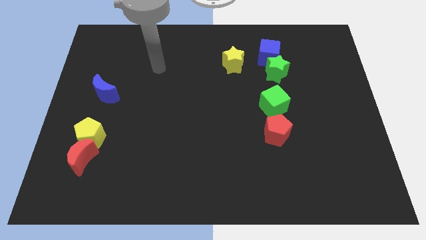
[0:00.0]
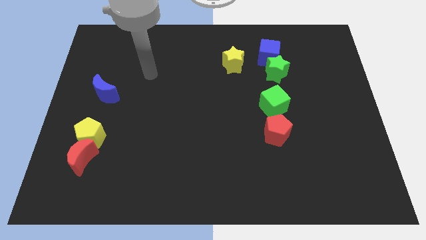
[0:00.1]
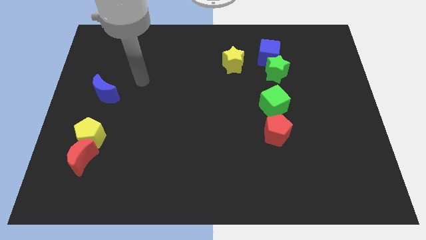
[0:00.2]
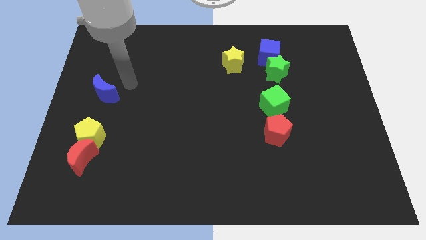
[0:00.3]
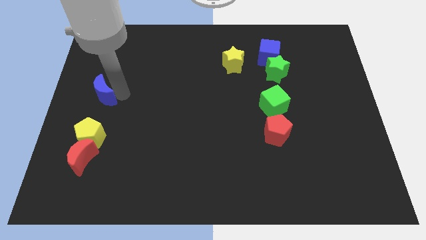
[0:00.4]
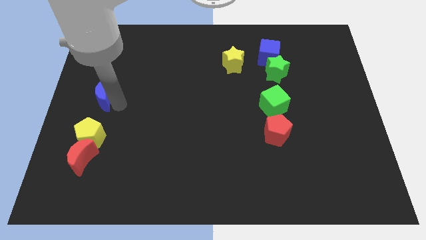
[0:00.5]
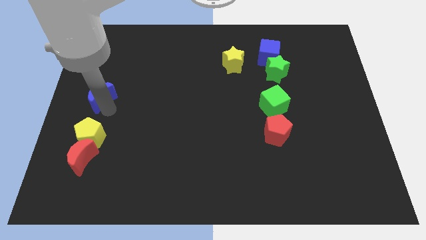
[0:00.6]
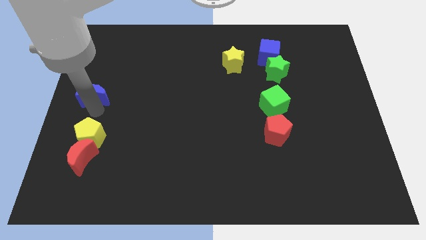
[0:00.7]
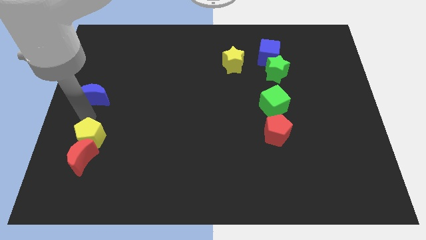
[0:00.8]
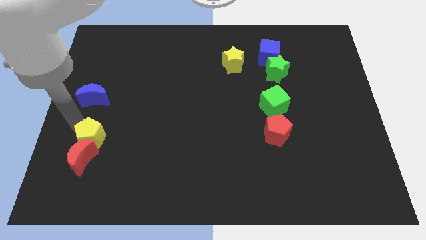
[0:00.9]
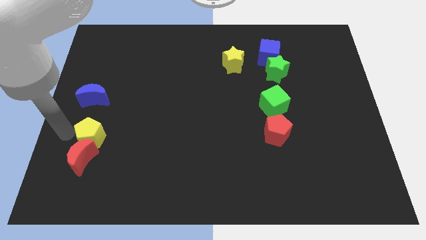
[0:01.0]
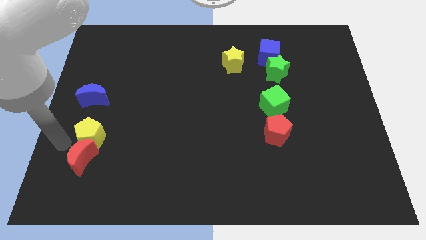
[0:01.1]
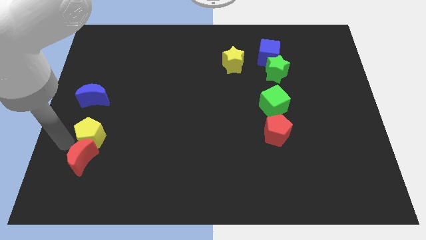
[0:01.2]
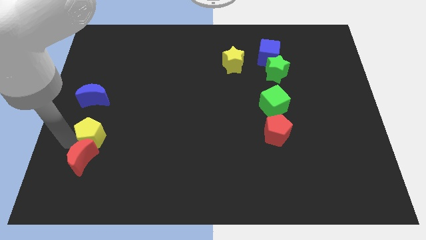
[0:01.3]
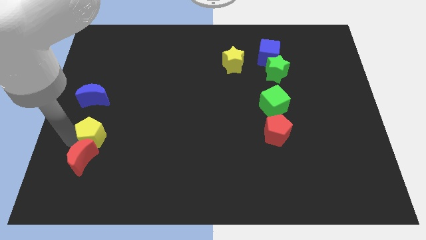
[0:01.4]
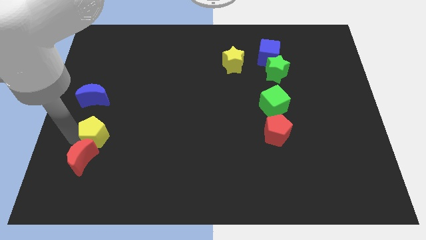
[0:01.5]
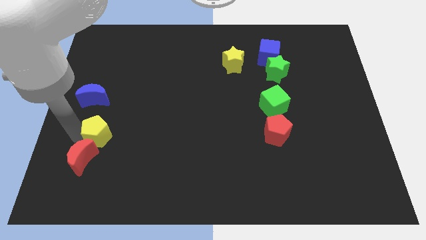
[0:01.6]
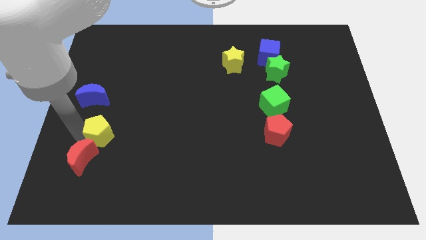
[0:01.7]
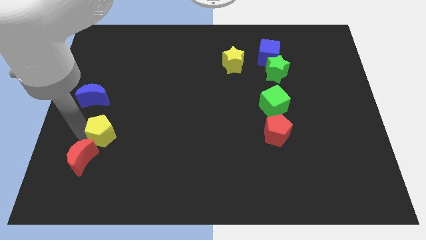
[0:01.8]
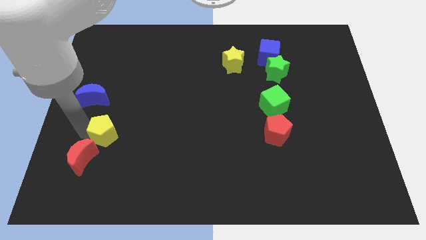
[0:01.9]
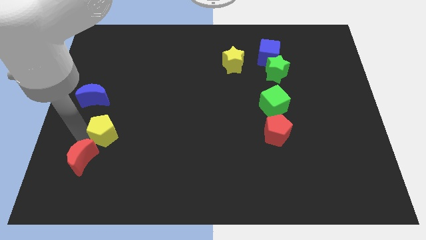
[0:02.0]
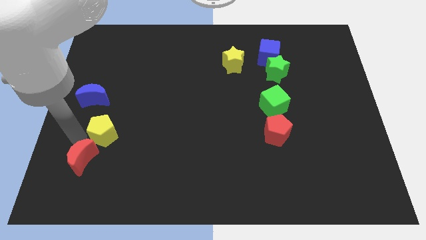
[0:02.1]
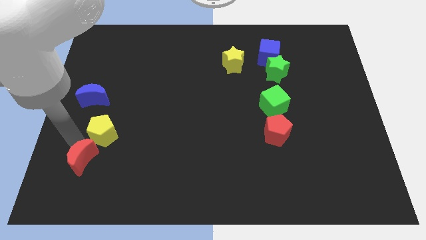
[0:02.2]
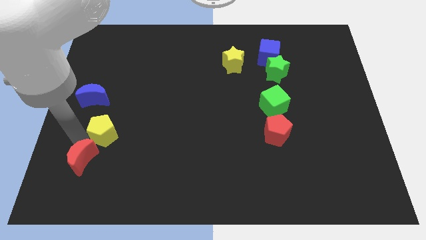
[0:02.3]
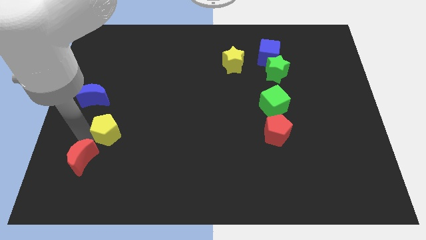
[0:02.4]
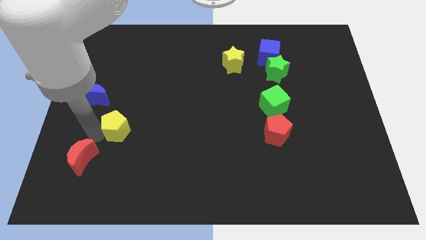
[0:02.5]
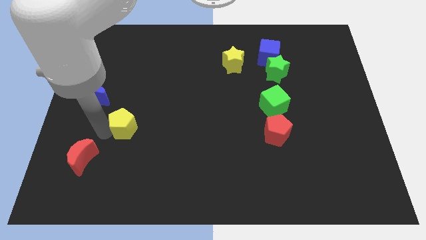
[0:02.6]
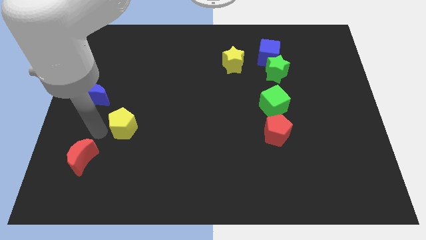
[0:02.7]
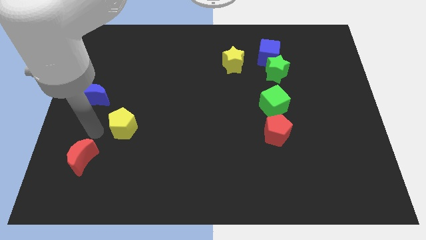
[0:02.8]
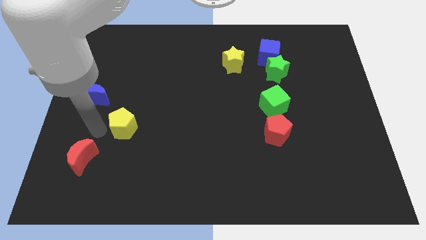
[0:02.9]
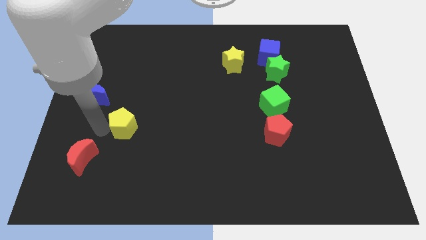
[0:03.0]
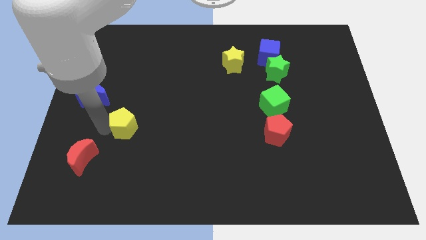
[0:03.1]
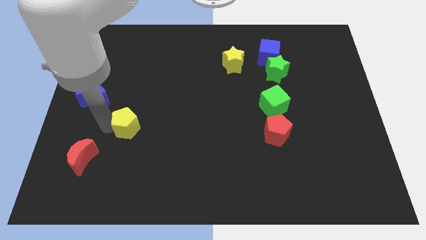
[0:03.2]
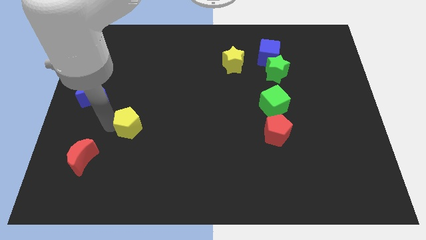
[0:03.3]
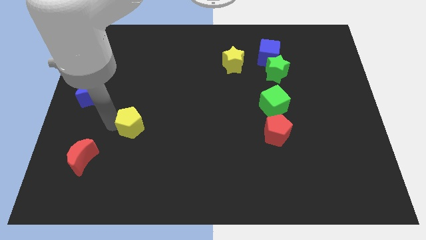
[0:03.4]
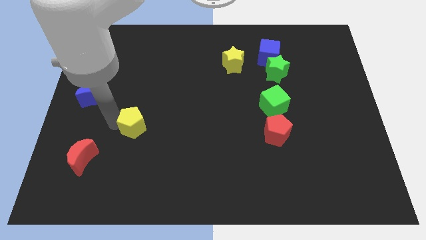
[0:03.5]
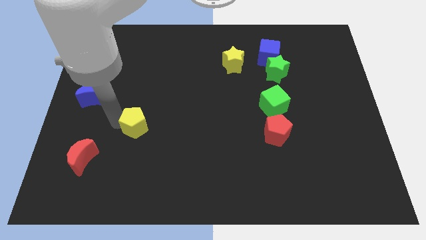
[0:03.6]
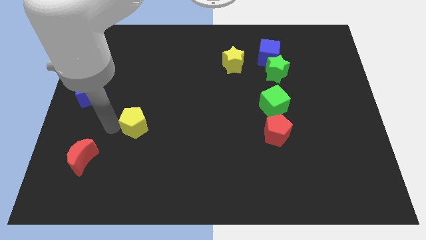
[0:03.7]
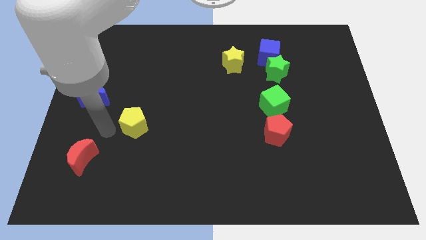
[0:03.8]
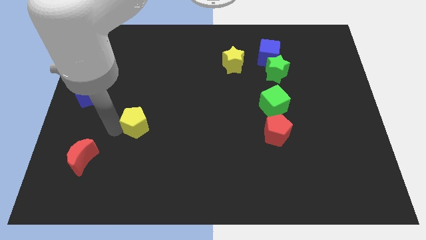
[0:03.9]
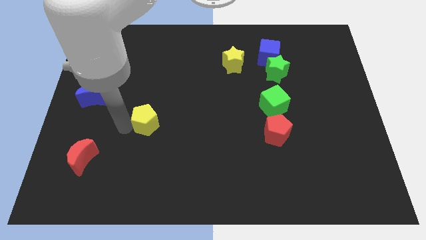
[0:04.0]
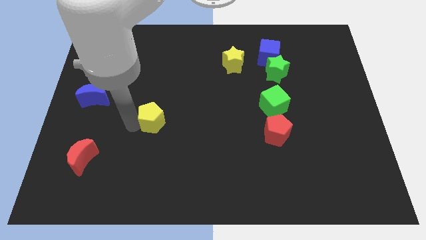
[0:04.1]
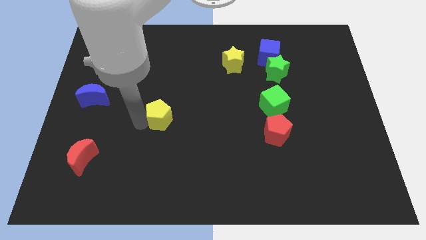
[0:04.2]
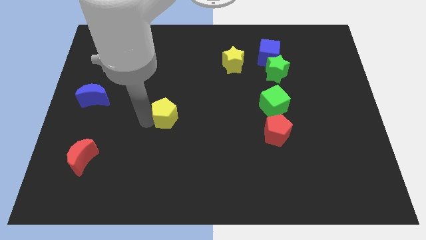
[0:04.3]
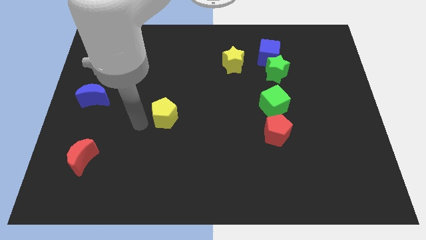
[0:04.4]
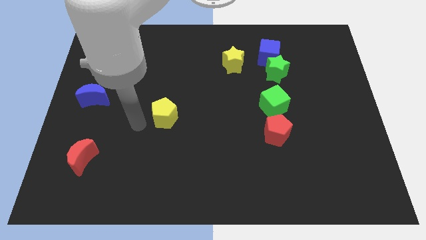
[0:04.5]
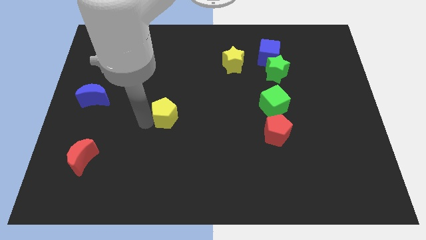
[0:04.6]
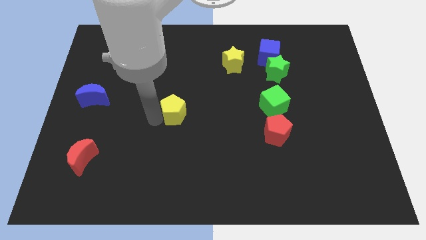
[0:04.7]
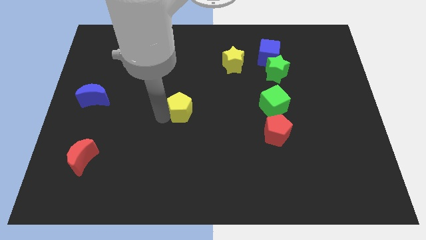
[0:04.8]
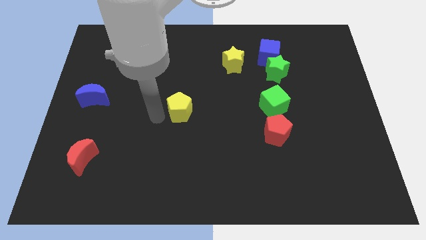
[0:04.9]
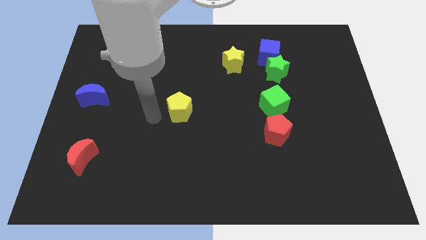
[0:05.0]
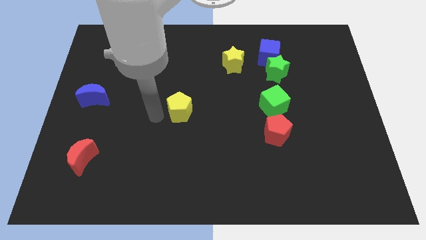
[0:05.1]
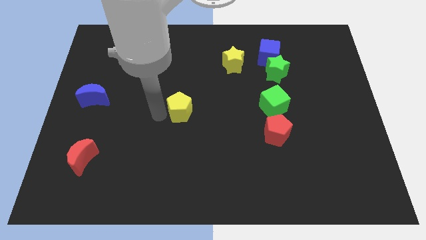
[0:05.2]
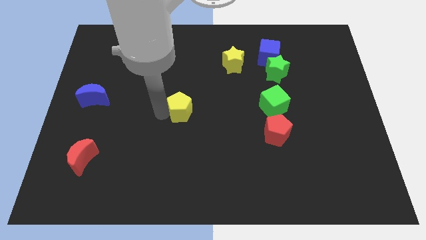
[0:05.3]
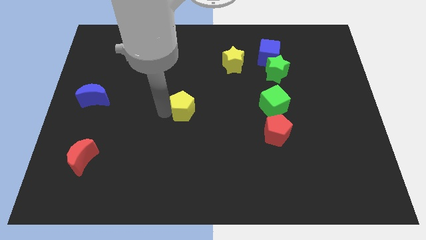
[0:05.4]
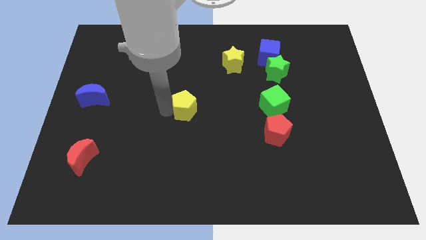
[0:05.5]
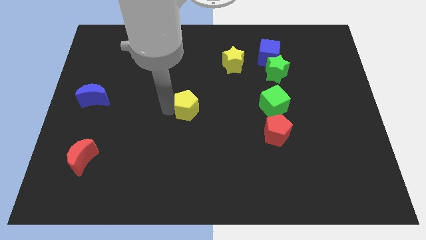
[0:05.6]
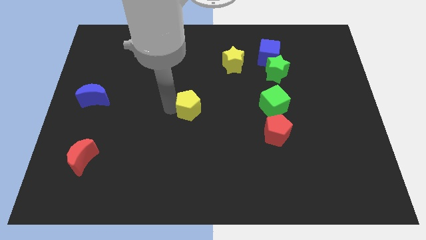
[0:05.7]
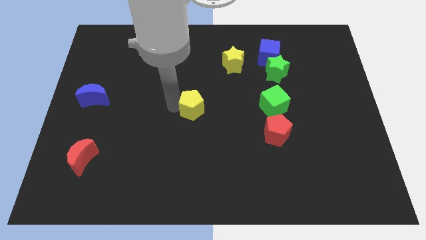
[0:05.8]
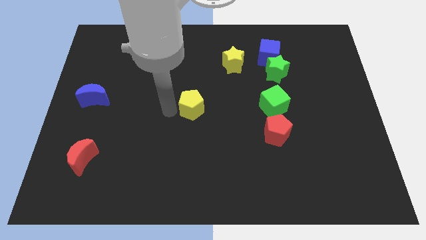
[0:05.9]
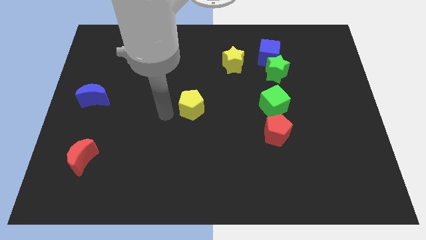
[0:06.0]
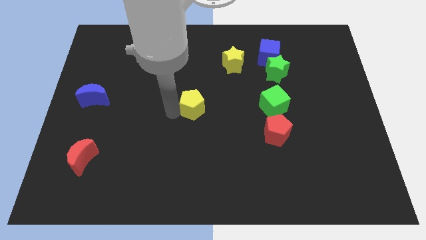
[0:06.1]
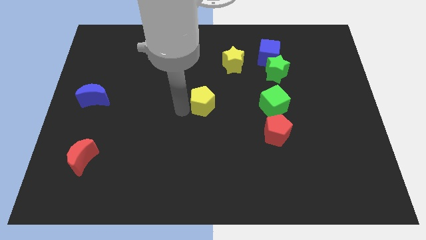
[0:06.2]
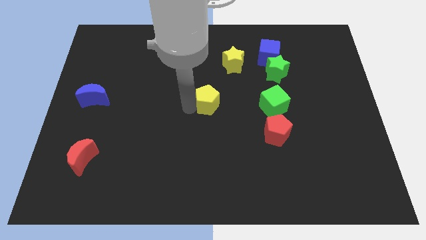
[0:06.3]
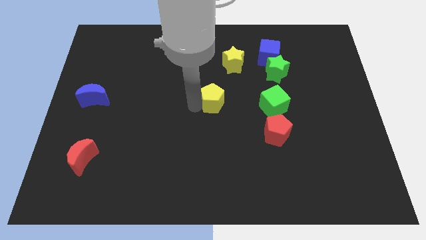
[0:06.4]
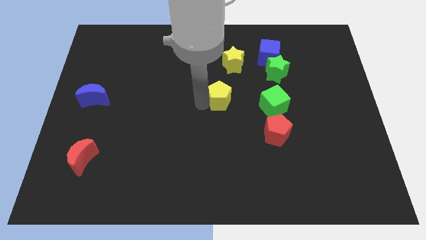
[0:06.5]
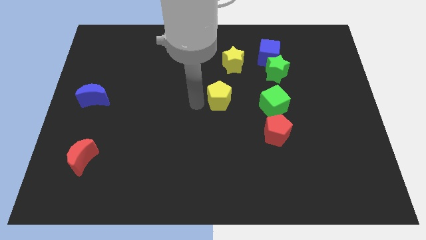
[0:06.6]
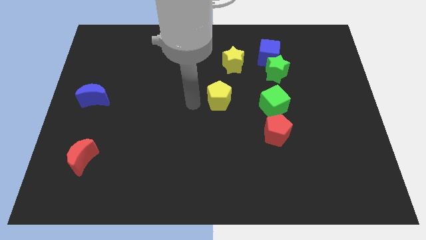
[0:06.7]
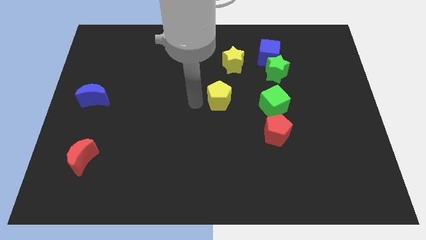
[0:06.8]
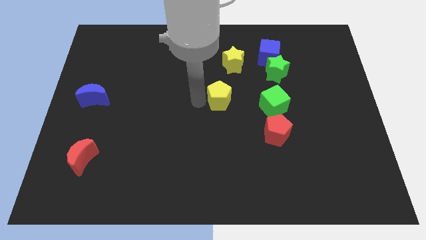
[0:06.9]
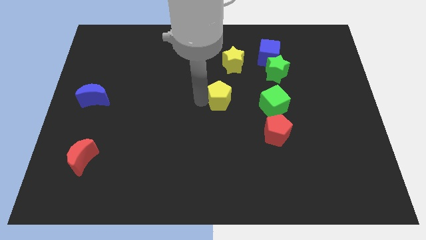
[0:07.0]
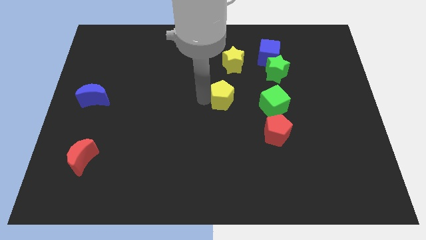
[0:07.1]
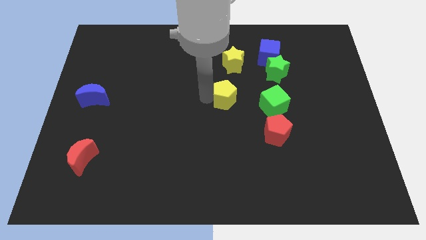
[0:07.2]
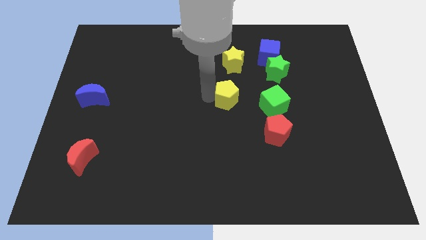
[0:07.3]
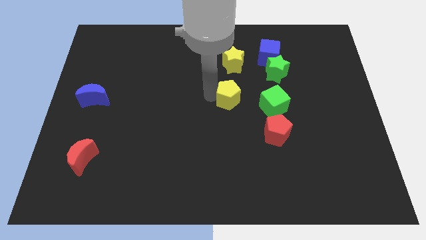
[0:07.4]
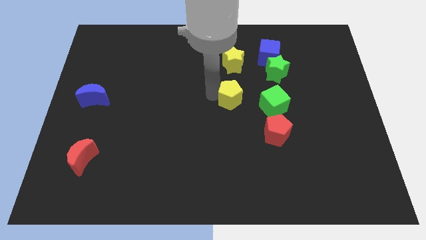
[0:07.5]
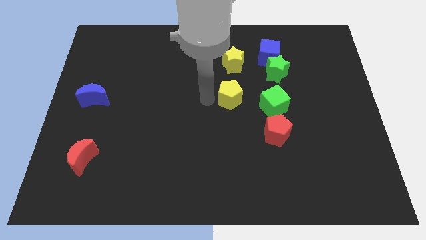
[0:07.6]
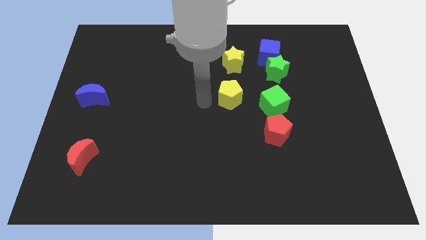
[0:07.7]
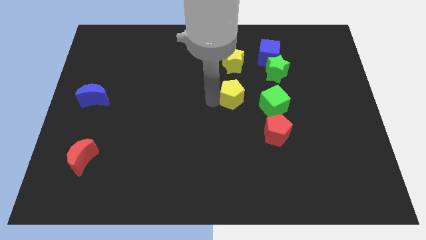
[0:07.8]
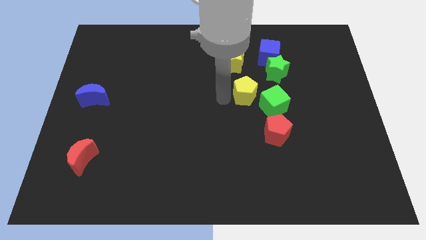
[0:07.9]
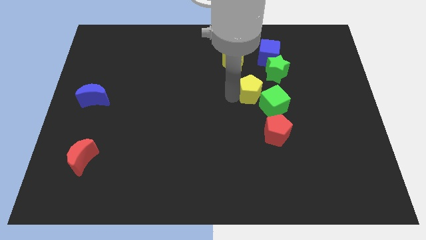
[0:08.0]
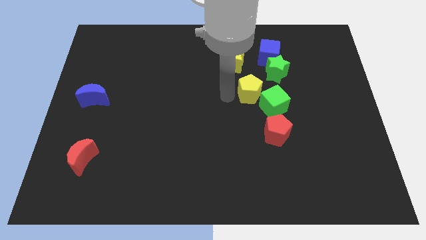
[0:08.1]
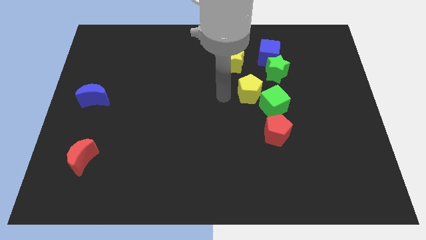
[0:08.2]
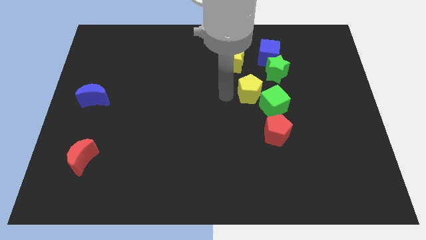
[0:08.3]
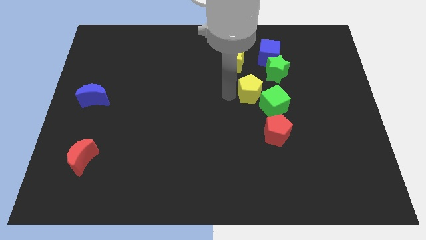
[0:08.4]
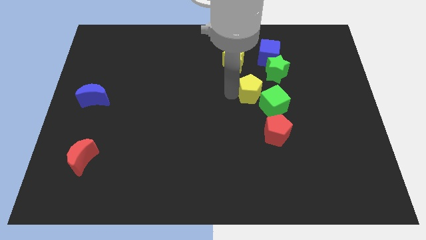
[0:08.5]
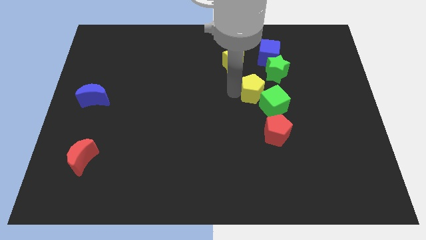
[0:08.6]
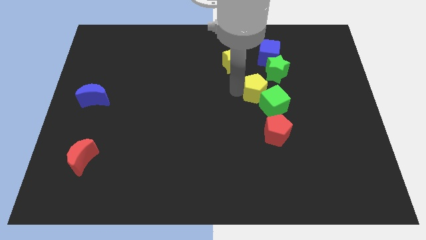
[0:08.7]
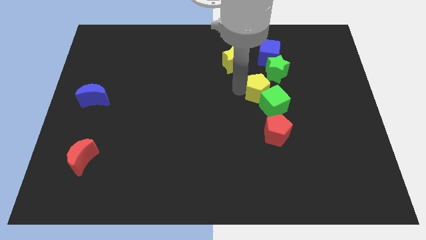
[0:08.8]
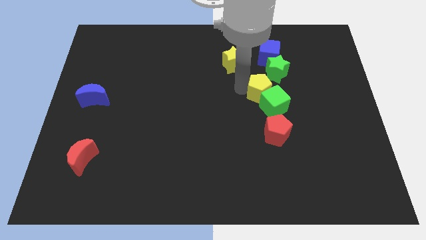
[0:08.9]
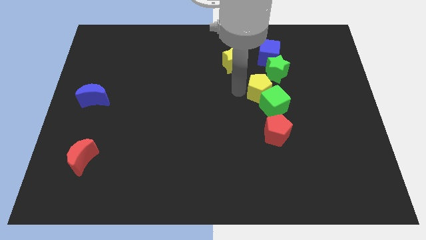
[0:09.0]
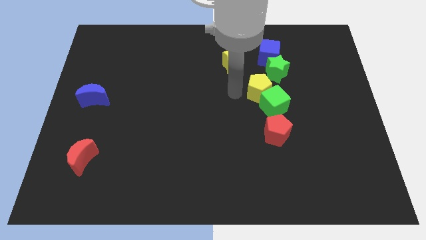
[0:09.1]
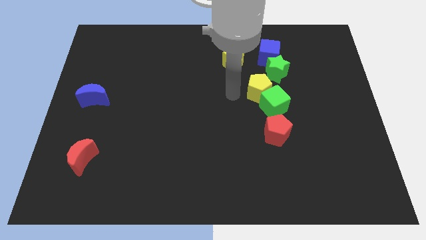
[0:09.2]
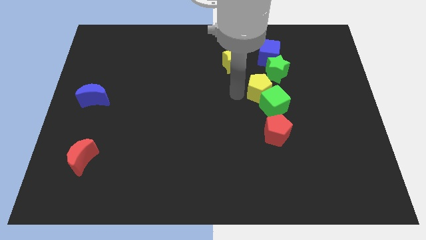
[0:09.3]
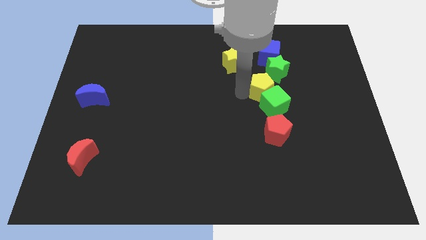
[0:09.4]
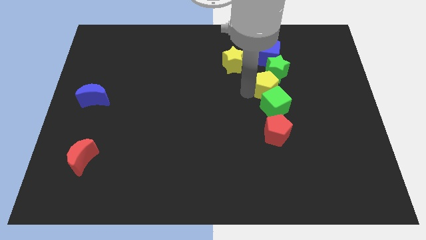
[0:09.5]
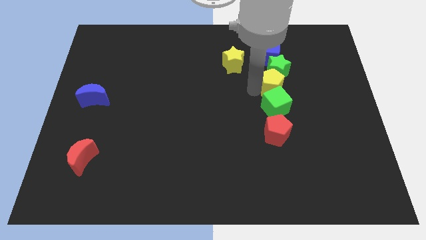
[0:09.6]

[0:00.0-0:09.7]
slide the yellow pentagon to the top right side of the green cube
